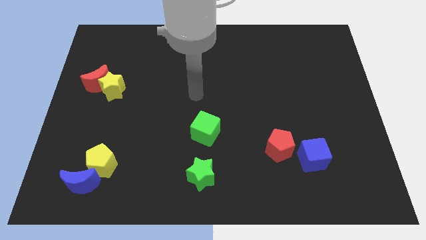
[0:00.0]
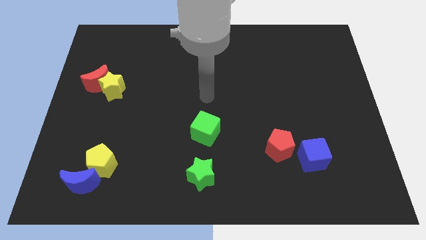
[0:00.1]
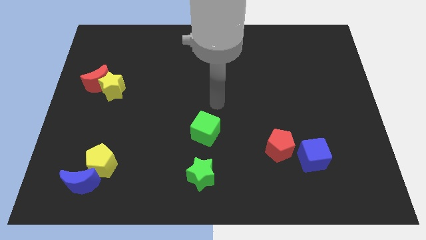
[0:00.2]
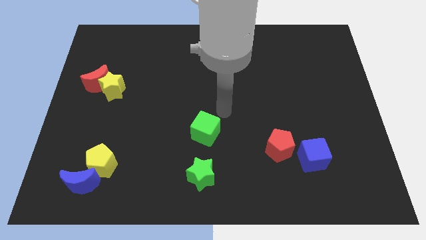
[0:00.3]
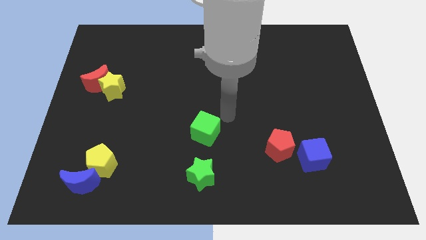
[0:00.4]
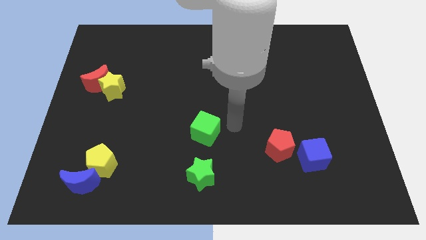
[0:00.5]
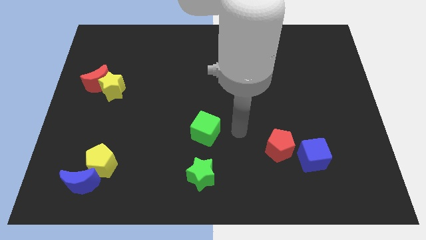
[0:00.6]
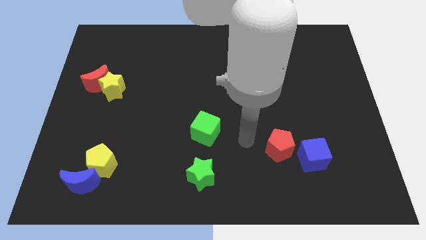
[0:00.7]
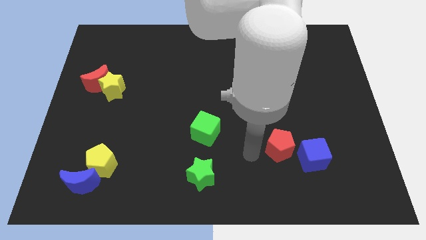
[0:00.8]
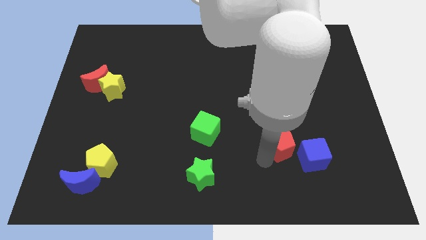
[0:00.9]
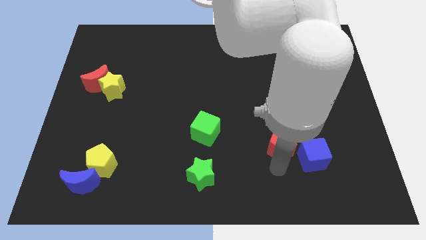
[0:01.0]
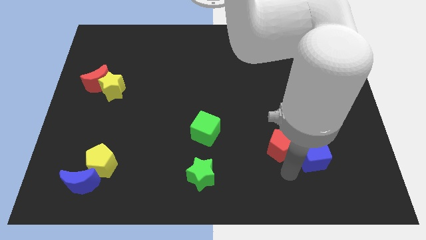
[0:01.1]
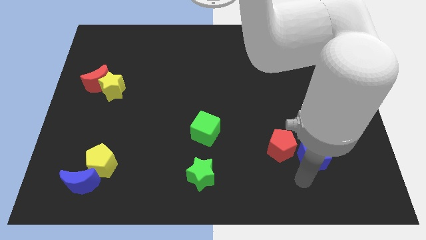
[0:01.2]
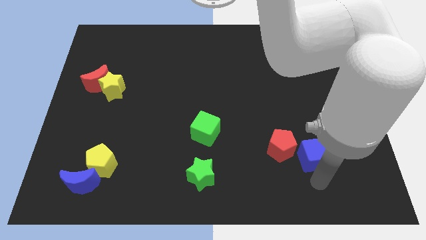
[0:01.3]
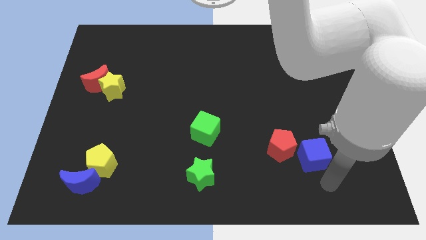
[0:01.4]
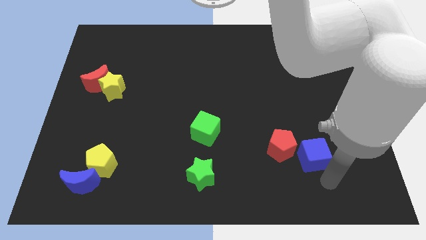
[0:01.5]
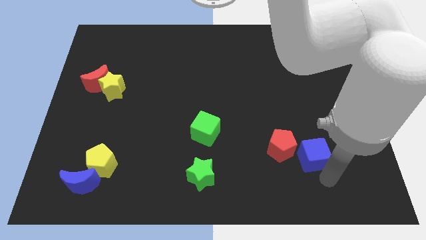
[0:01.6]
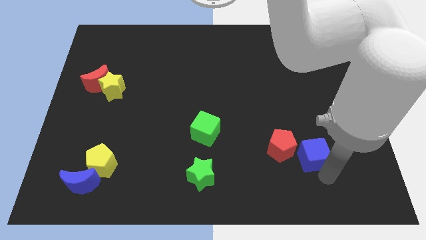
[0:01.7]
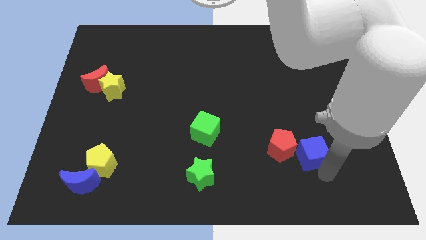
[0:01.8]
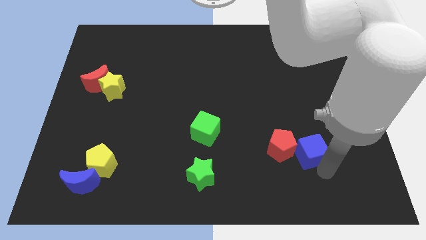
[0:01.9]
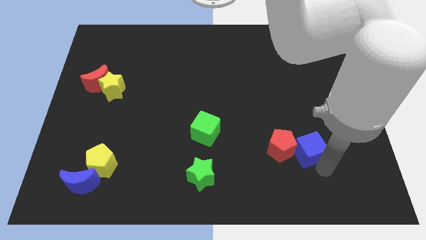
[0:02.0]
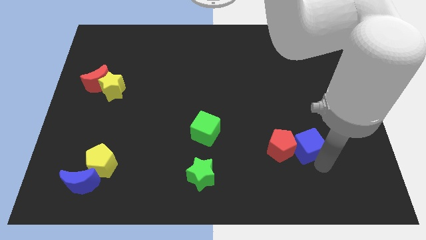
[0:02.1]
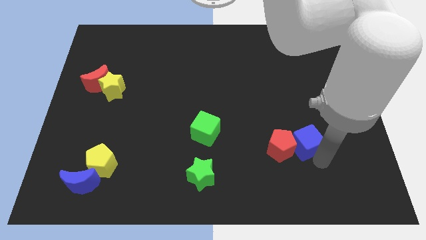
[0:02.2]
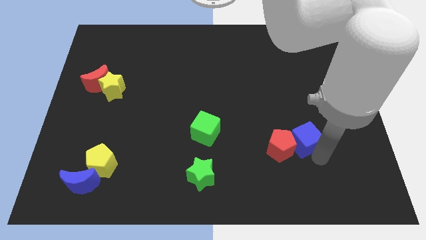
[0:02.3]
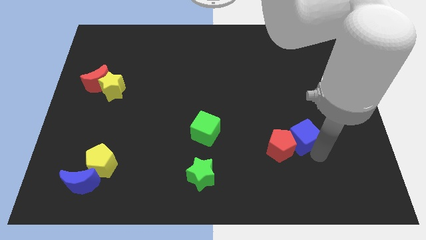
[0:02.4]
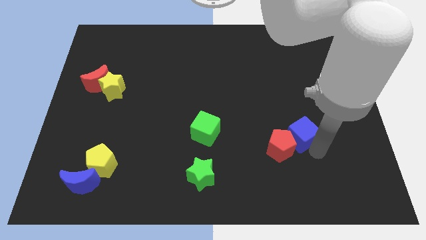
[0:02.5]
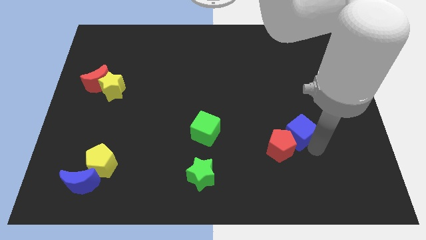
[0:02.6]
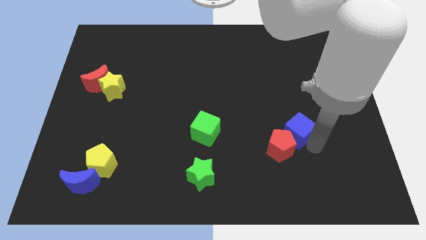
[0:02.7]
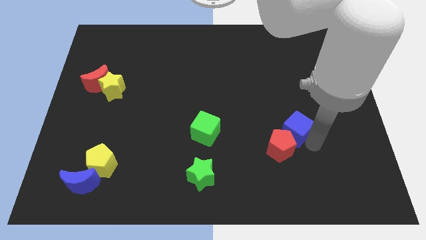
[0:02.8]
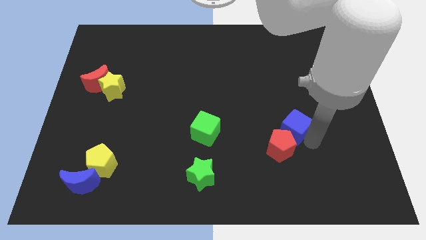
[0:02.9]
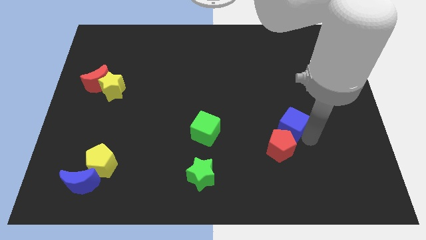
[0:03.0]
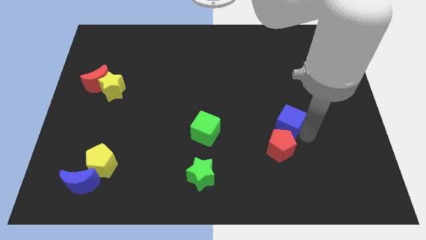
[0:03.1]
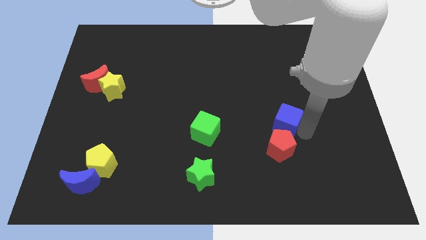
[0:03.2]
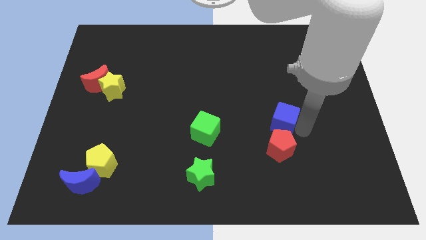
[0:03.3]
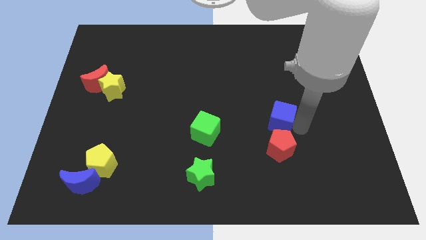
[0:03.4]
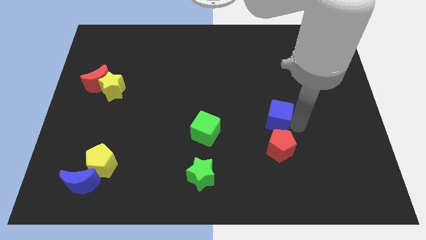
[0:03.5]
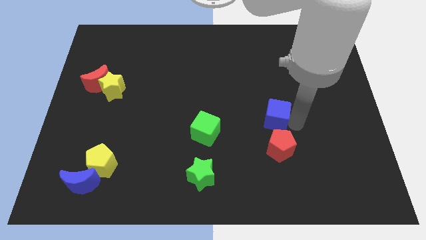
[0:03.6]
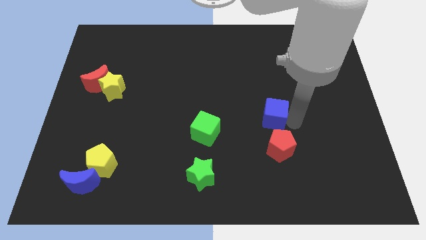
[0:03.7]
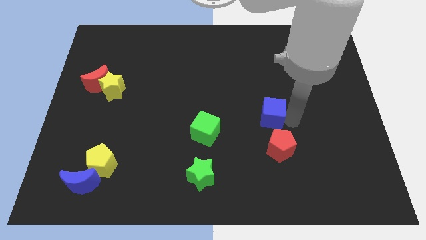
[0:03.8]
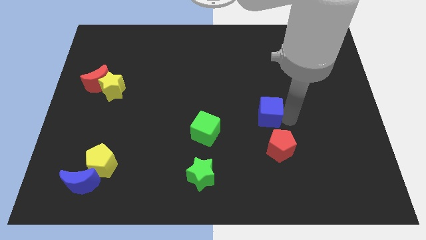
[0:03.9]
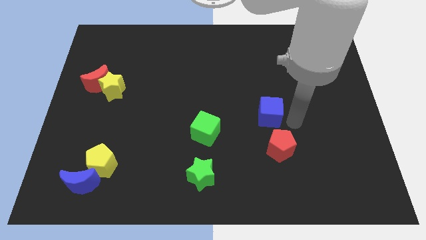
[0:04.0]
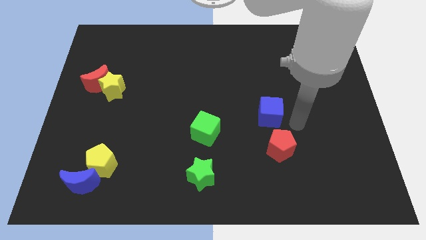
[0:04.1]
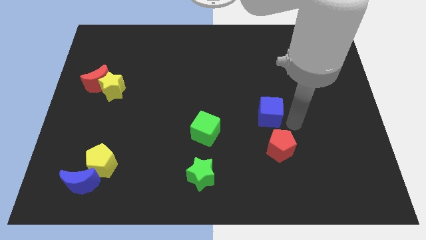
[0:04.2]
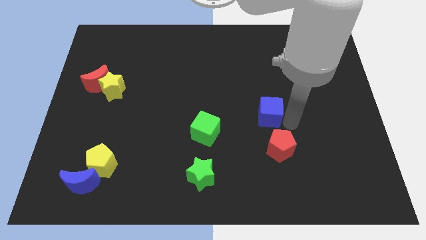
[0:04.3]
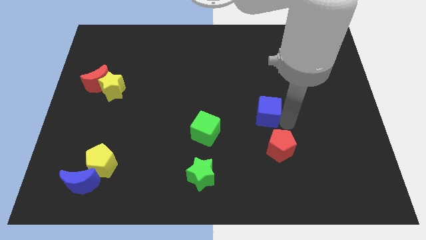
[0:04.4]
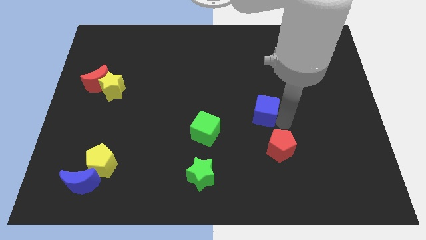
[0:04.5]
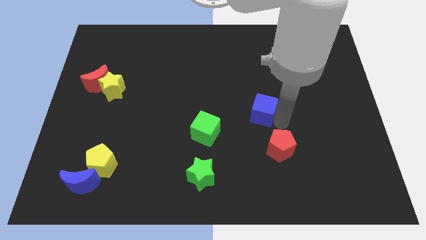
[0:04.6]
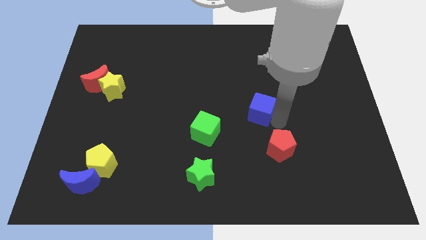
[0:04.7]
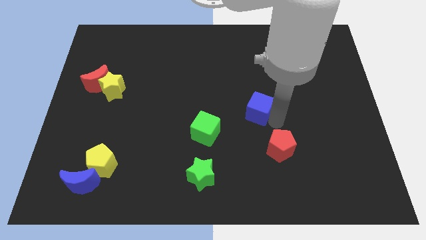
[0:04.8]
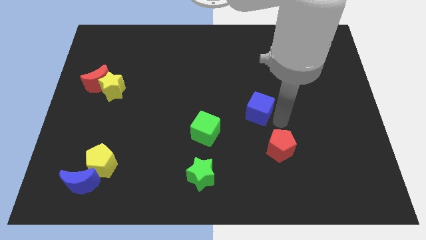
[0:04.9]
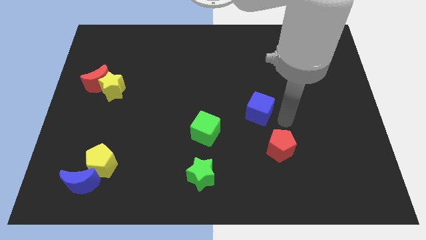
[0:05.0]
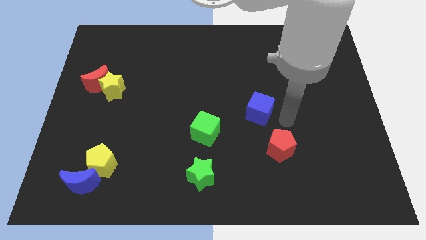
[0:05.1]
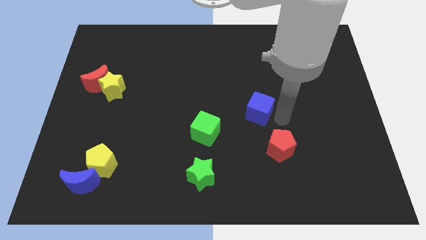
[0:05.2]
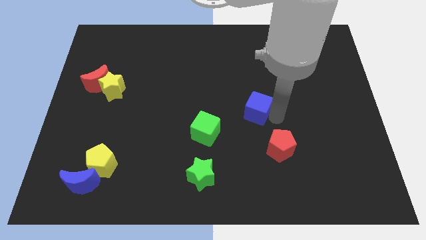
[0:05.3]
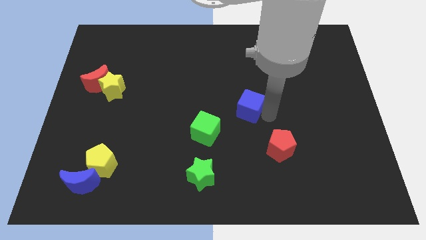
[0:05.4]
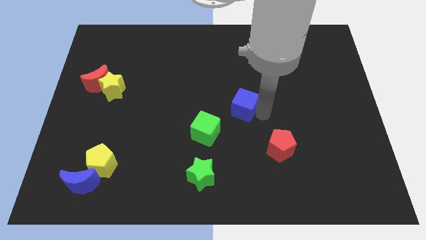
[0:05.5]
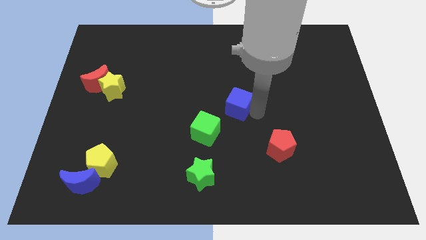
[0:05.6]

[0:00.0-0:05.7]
slide the blue cube diagonally up and to the left

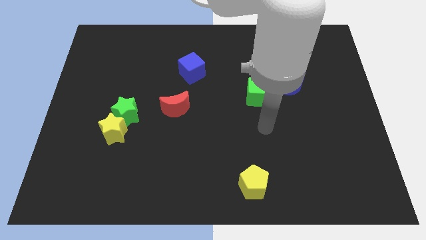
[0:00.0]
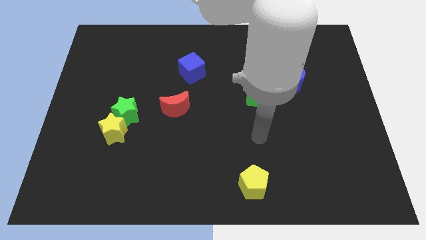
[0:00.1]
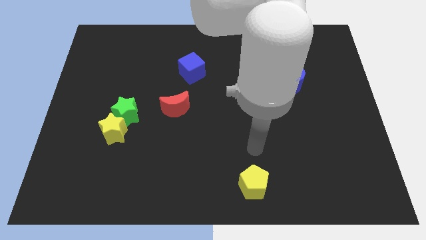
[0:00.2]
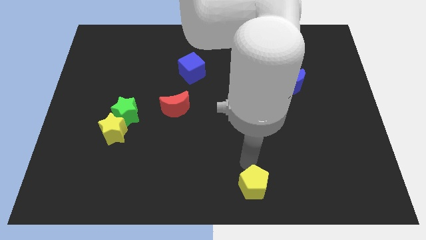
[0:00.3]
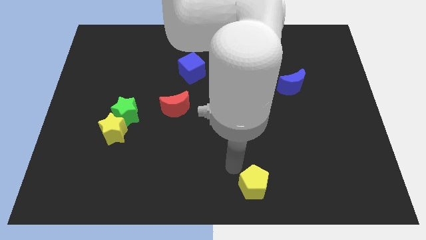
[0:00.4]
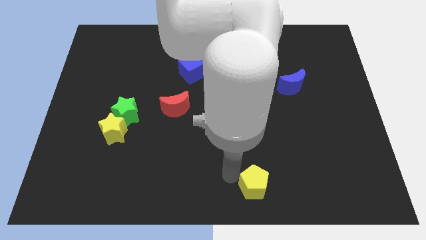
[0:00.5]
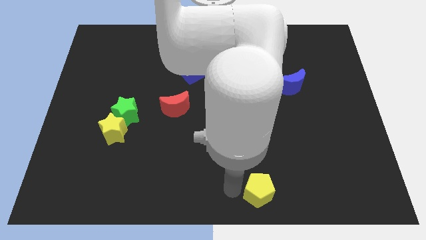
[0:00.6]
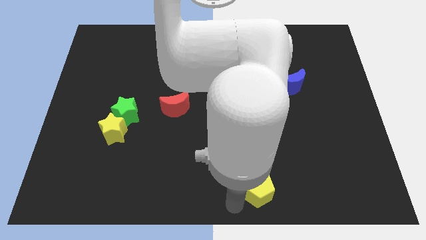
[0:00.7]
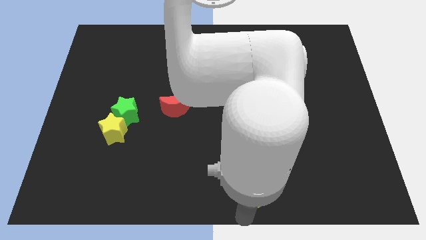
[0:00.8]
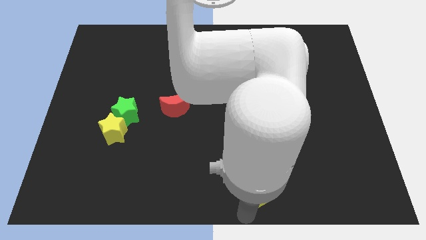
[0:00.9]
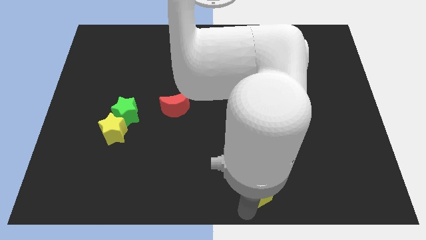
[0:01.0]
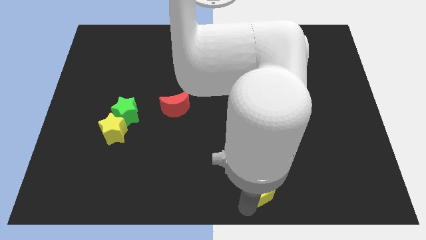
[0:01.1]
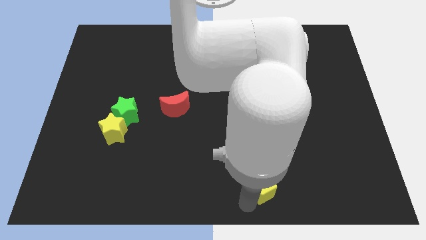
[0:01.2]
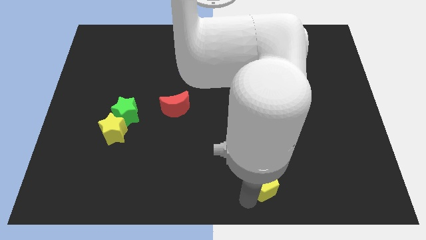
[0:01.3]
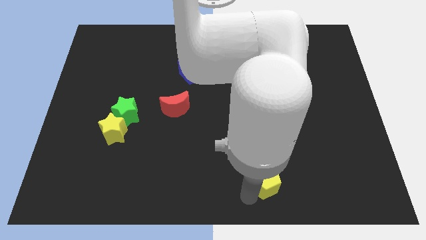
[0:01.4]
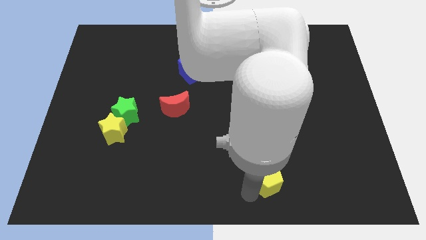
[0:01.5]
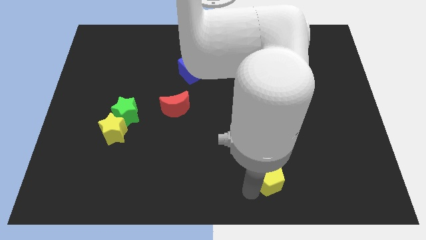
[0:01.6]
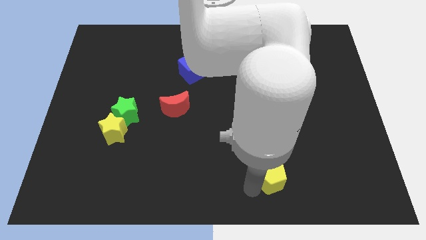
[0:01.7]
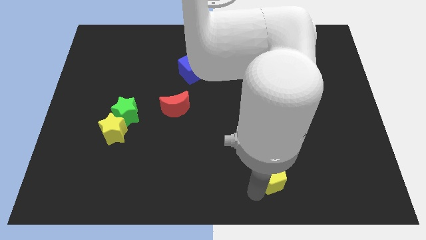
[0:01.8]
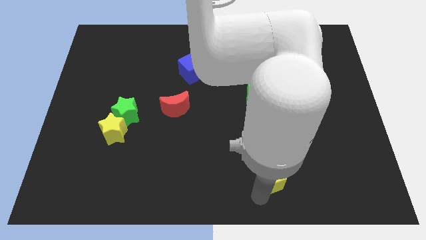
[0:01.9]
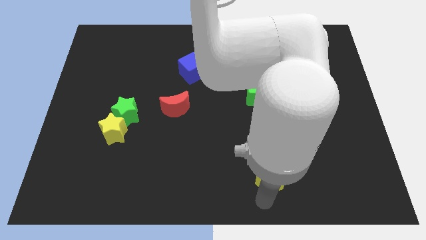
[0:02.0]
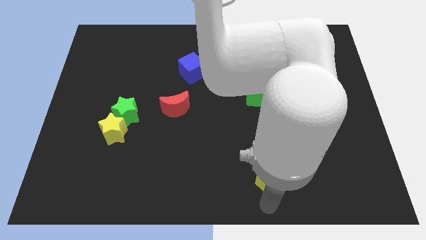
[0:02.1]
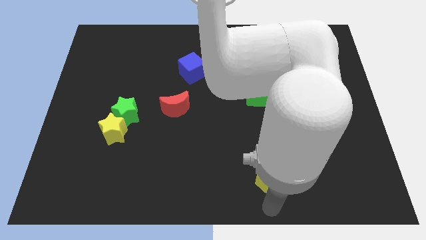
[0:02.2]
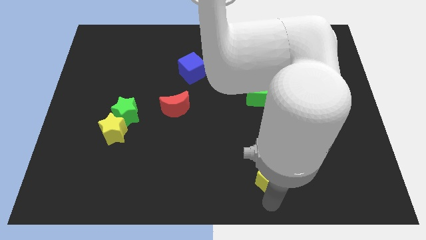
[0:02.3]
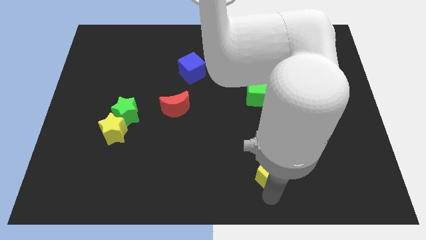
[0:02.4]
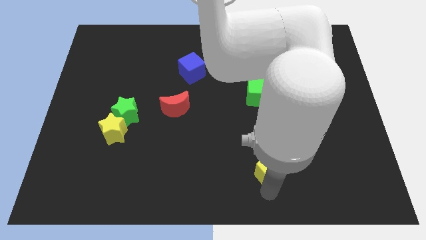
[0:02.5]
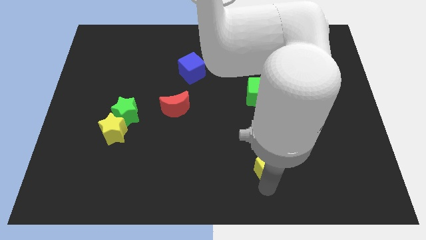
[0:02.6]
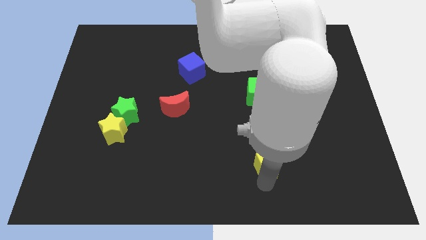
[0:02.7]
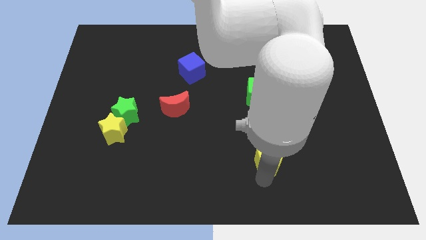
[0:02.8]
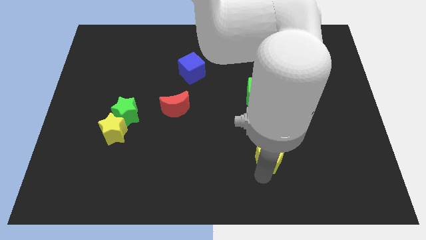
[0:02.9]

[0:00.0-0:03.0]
push the yellow pentagon a little diagonally up and right
